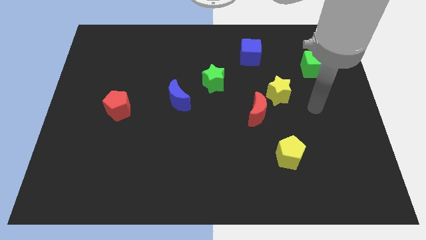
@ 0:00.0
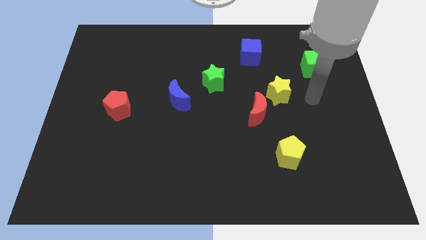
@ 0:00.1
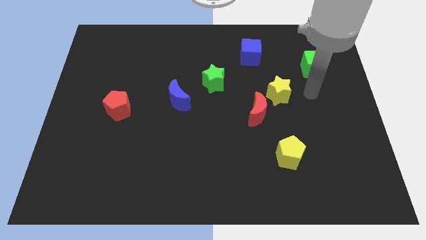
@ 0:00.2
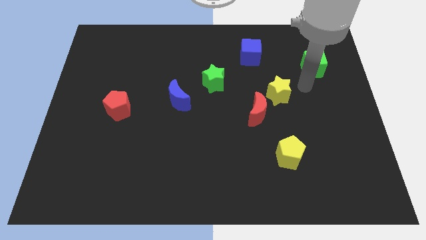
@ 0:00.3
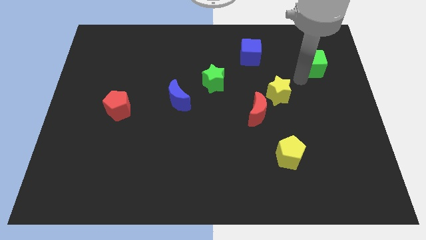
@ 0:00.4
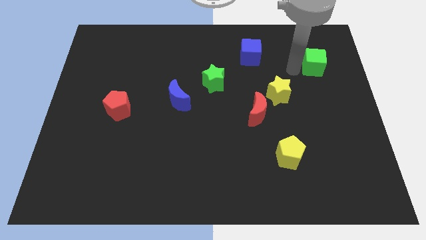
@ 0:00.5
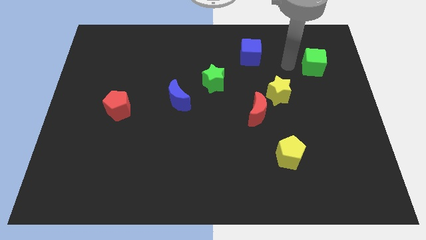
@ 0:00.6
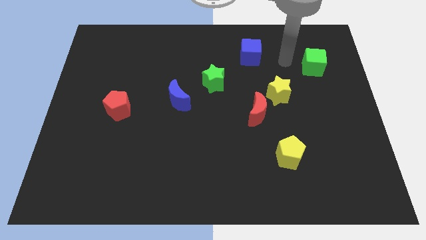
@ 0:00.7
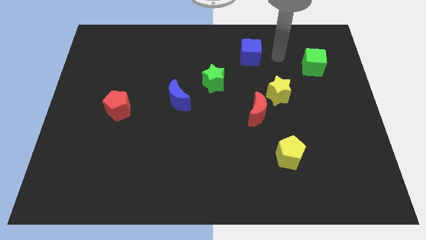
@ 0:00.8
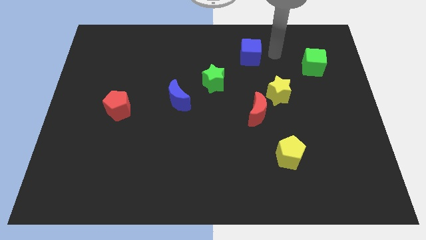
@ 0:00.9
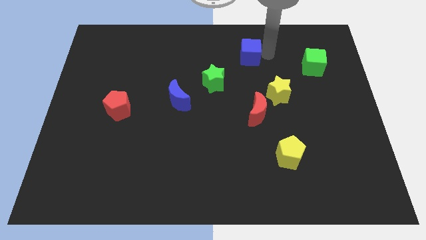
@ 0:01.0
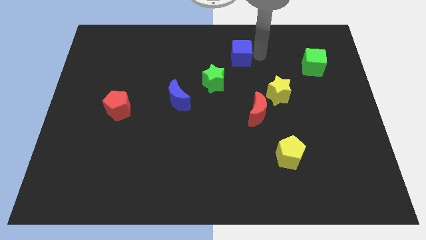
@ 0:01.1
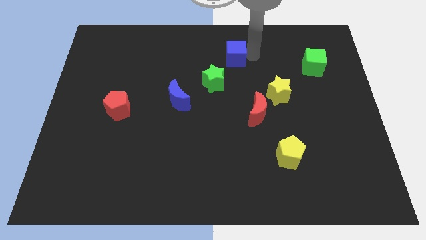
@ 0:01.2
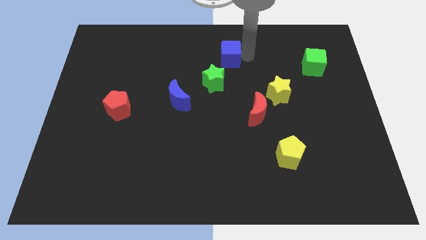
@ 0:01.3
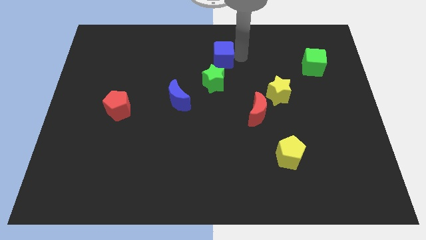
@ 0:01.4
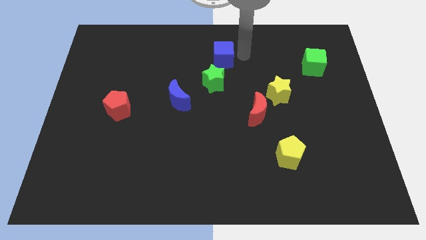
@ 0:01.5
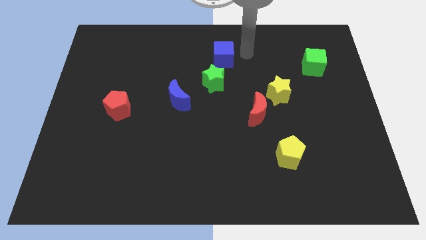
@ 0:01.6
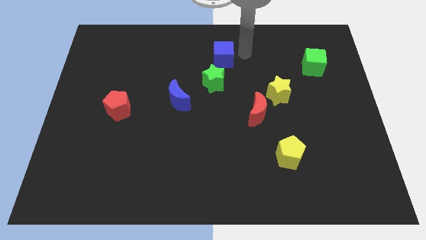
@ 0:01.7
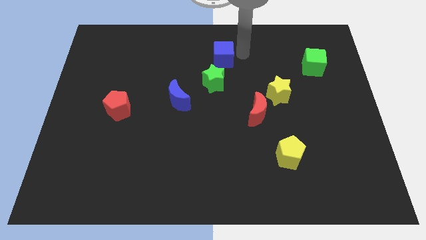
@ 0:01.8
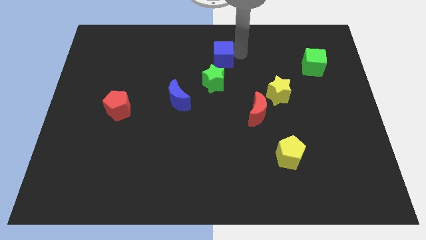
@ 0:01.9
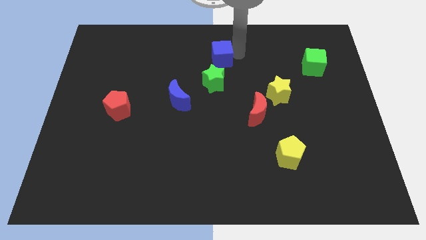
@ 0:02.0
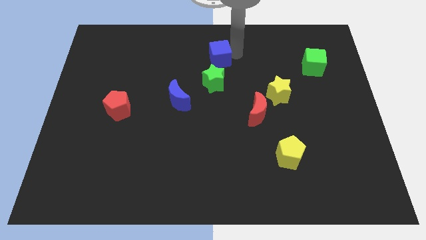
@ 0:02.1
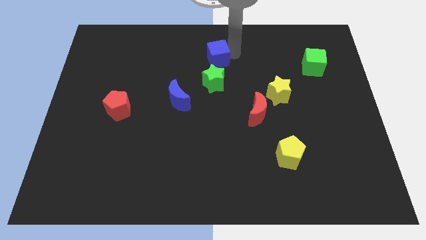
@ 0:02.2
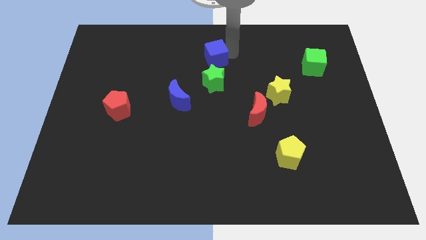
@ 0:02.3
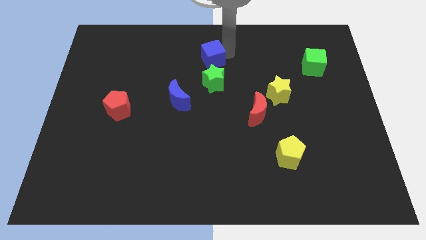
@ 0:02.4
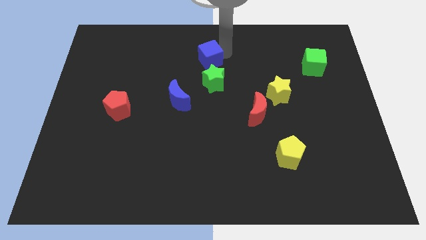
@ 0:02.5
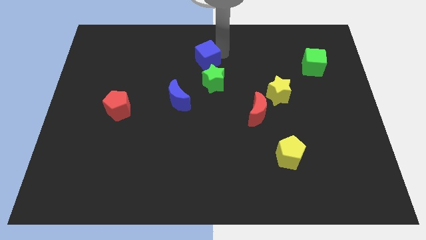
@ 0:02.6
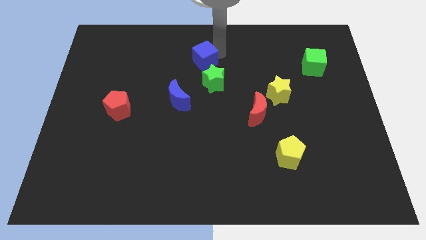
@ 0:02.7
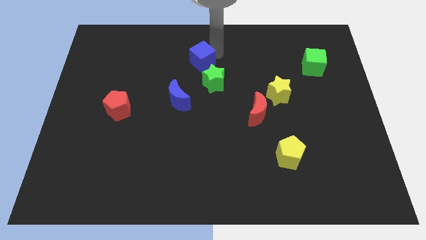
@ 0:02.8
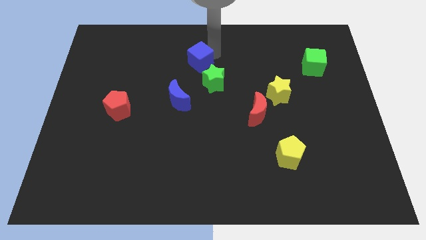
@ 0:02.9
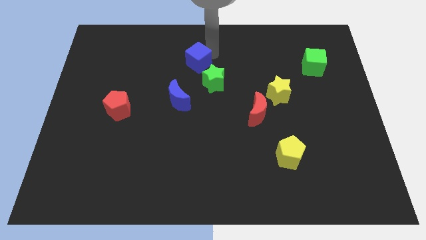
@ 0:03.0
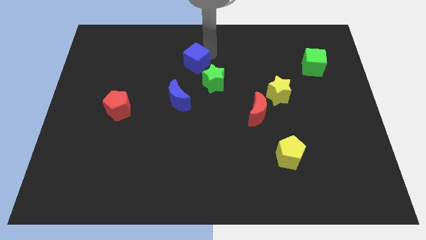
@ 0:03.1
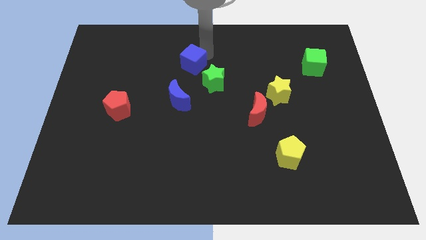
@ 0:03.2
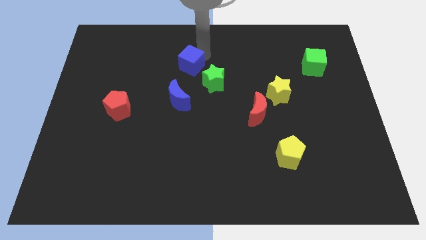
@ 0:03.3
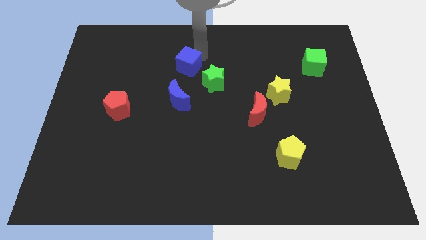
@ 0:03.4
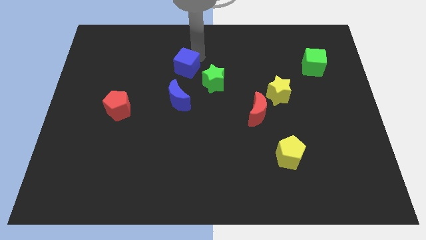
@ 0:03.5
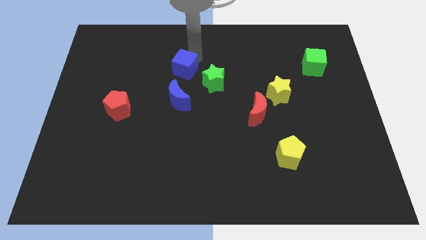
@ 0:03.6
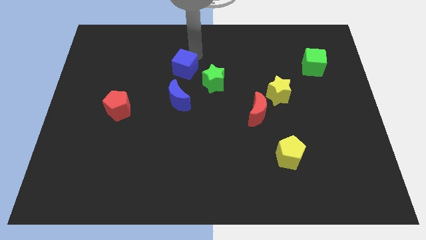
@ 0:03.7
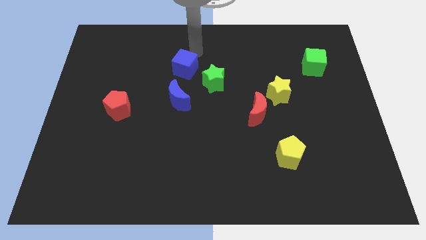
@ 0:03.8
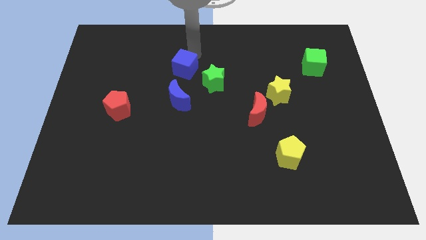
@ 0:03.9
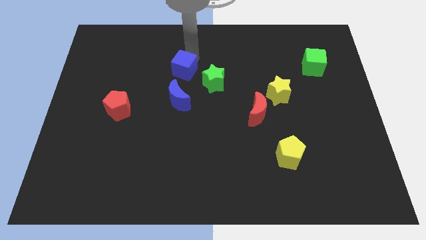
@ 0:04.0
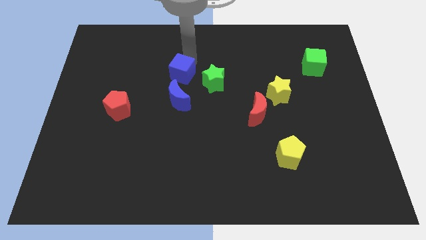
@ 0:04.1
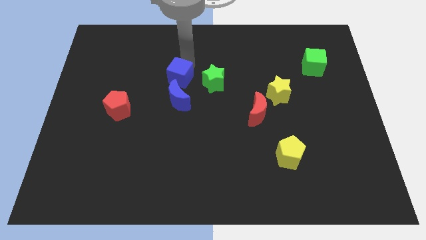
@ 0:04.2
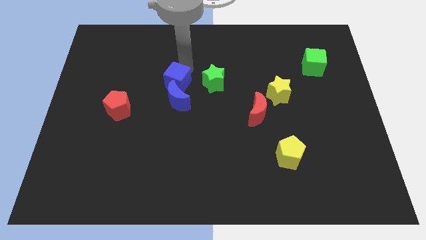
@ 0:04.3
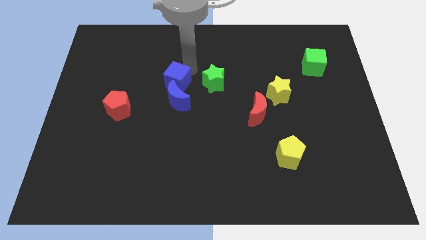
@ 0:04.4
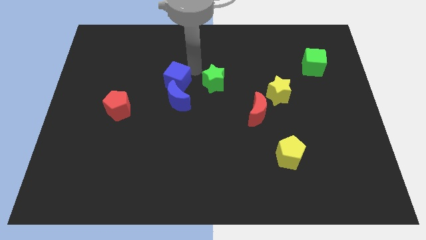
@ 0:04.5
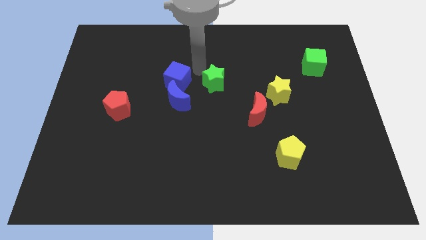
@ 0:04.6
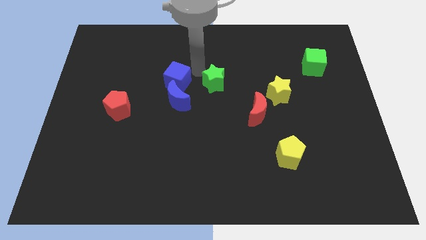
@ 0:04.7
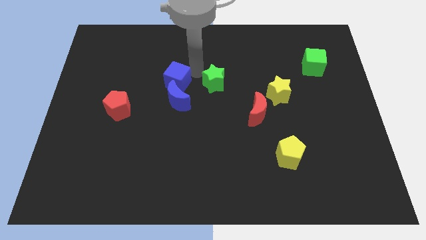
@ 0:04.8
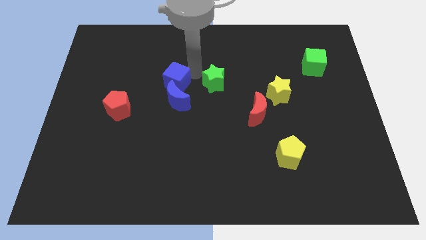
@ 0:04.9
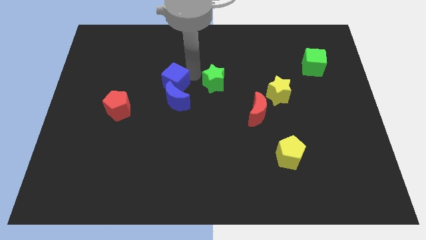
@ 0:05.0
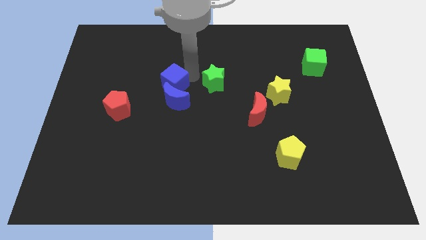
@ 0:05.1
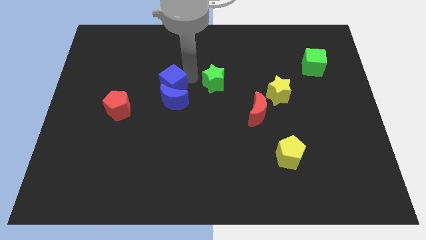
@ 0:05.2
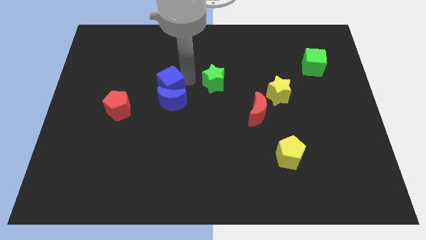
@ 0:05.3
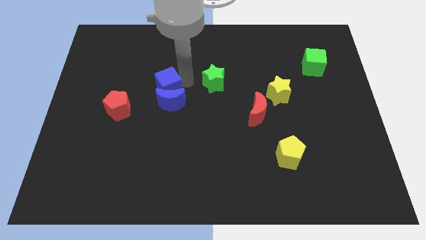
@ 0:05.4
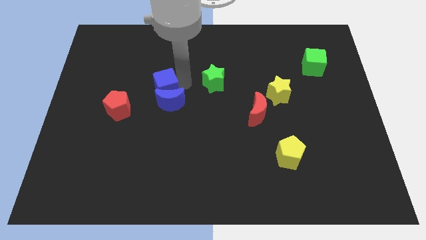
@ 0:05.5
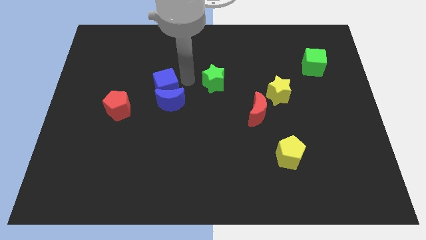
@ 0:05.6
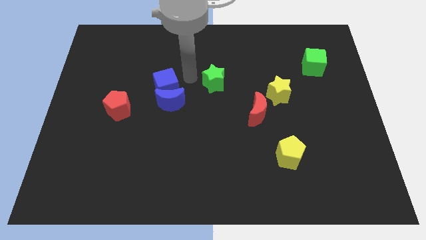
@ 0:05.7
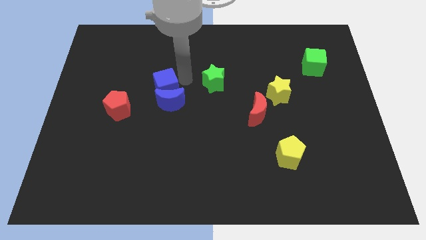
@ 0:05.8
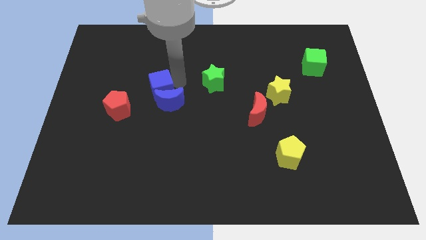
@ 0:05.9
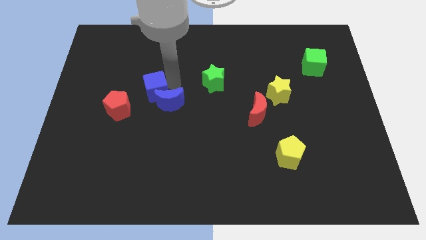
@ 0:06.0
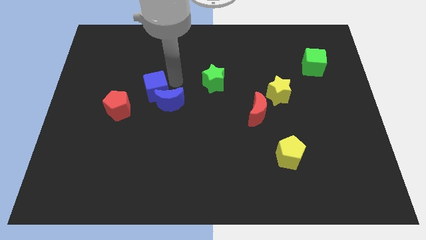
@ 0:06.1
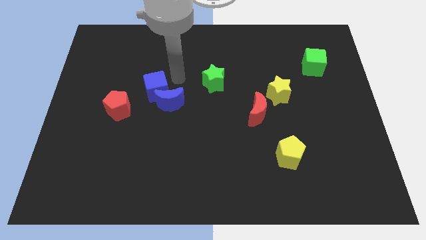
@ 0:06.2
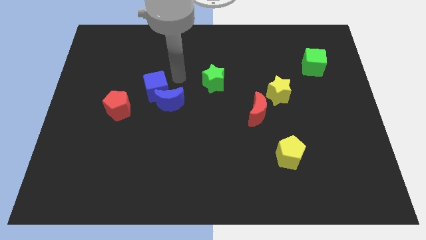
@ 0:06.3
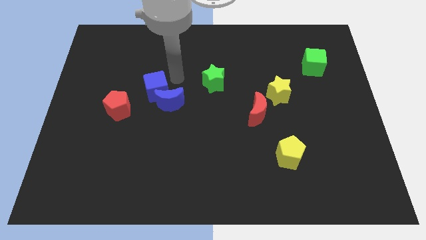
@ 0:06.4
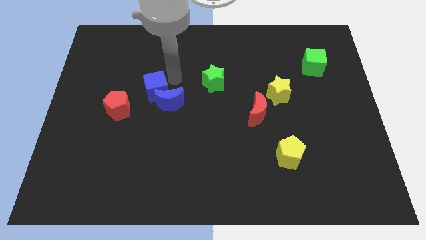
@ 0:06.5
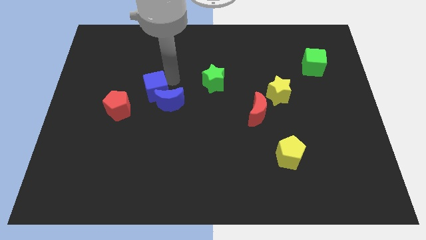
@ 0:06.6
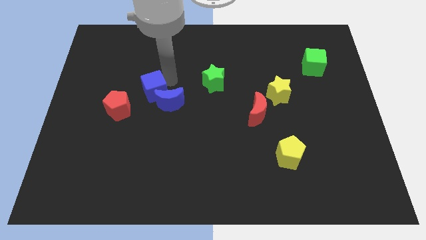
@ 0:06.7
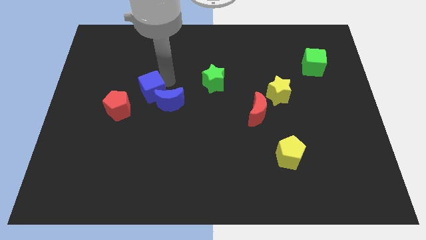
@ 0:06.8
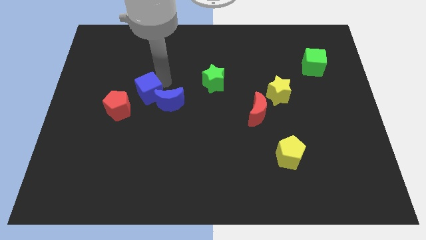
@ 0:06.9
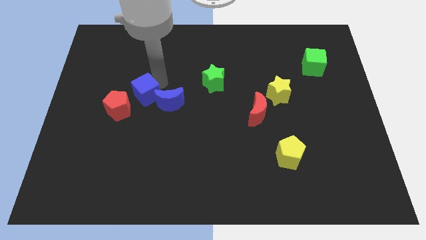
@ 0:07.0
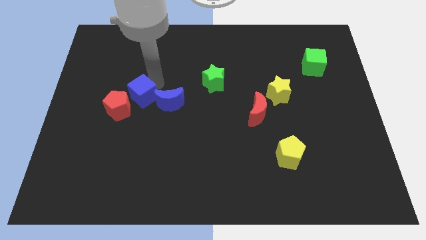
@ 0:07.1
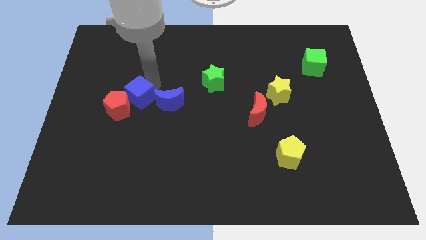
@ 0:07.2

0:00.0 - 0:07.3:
put the blue cube close to the red pentagon
